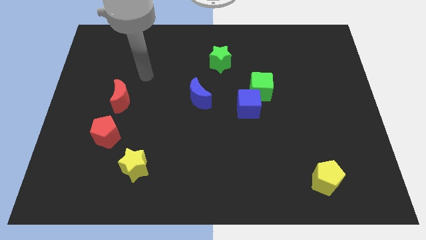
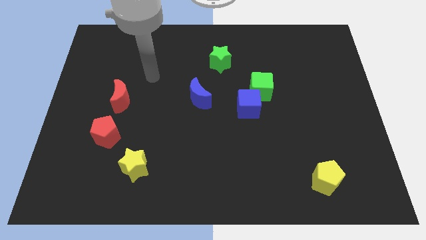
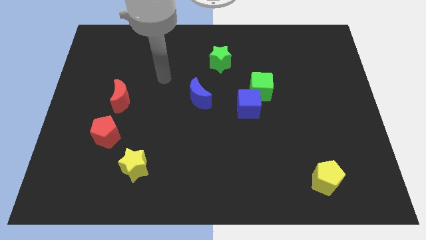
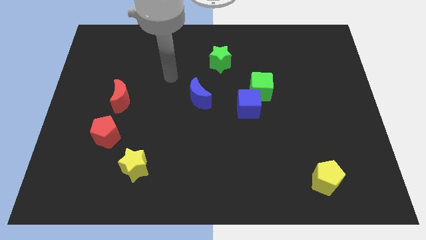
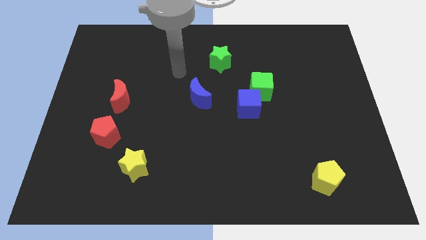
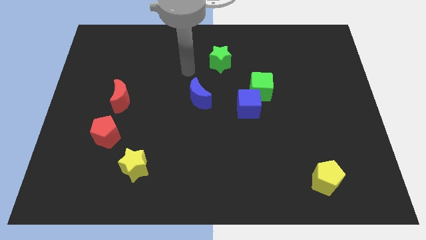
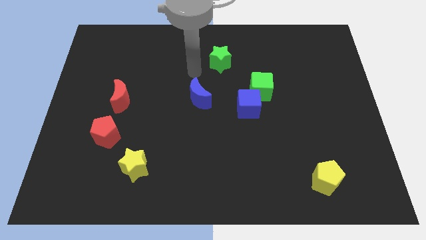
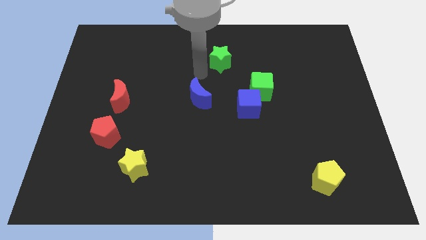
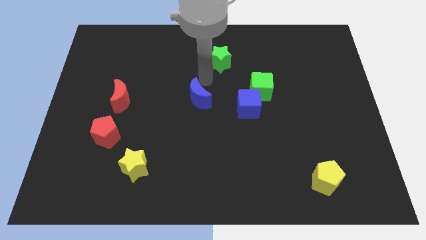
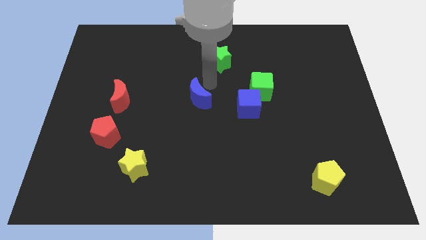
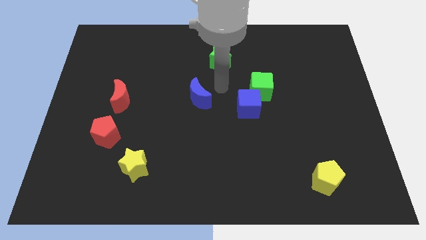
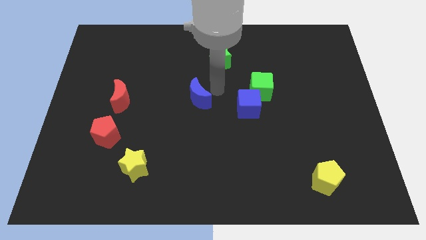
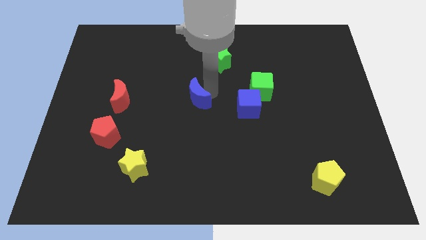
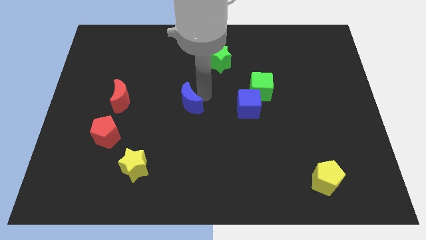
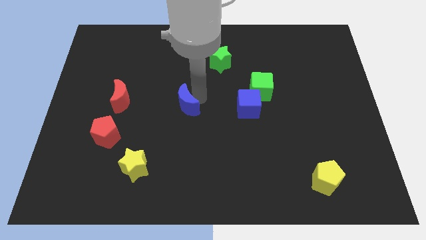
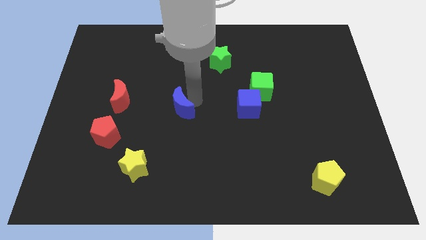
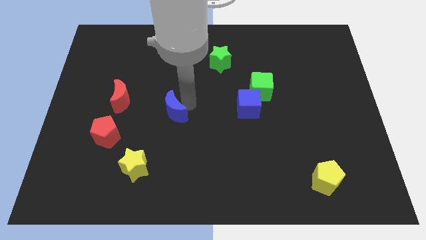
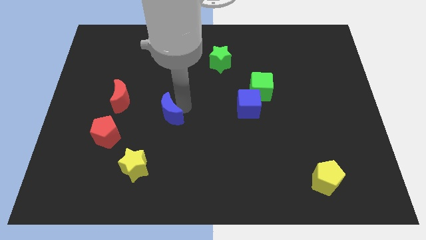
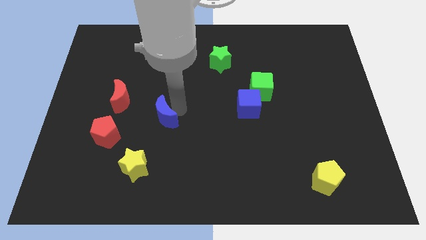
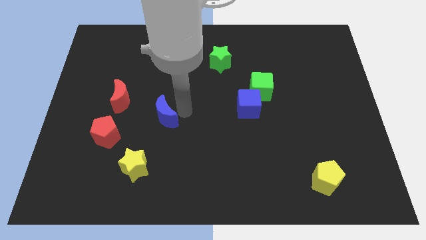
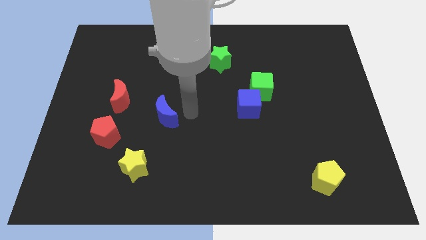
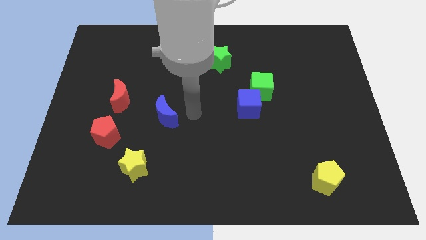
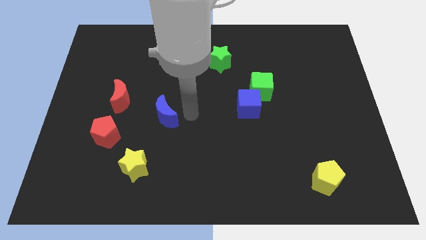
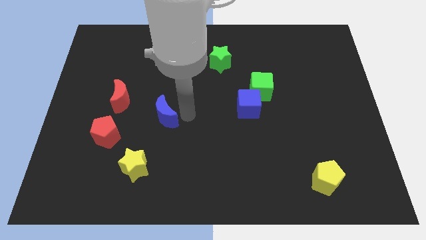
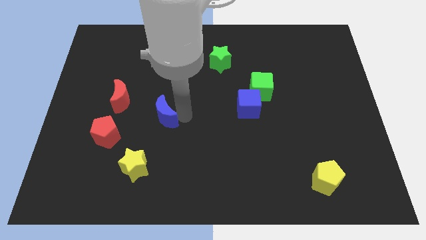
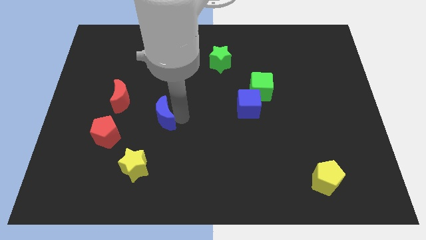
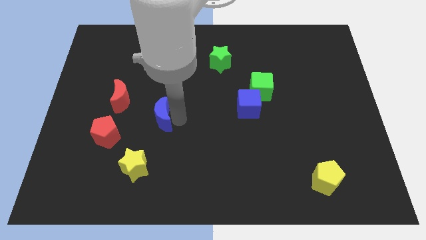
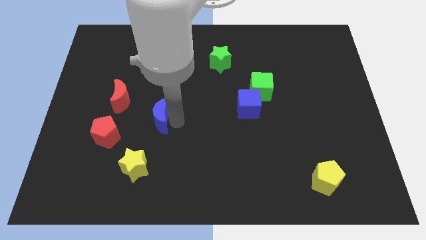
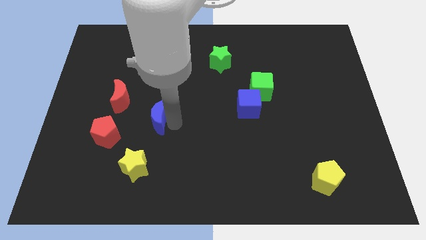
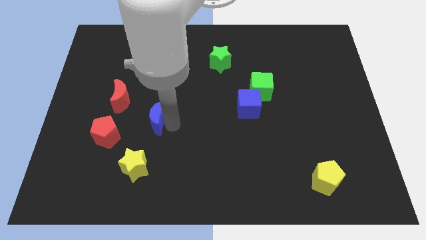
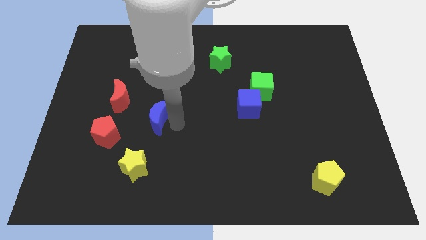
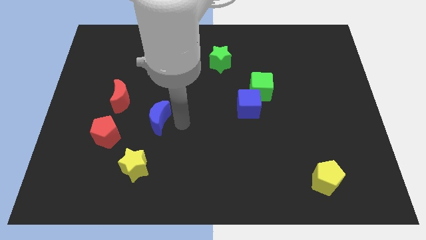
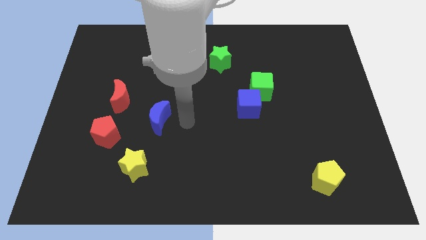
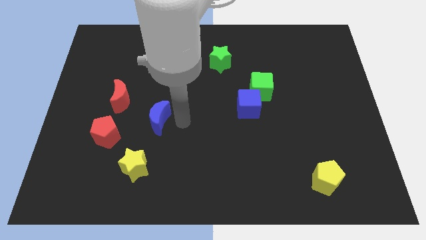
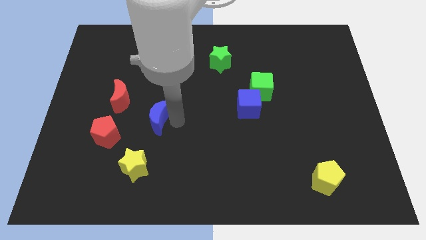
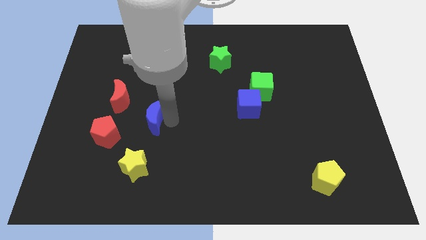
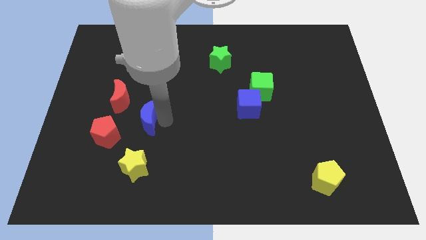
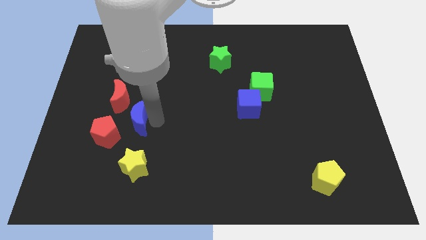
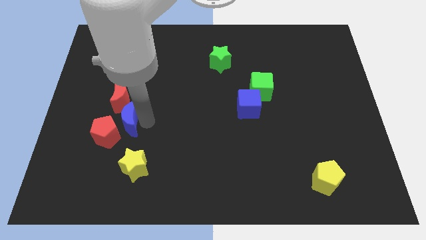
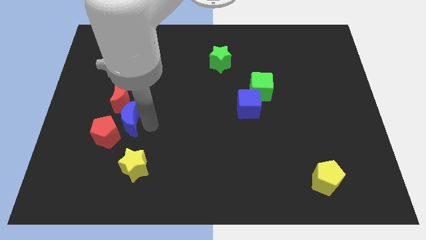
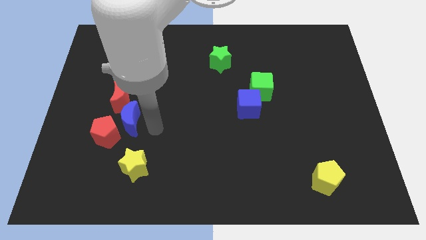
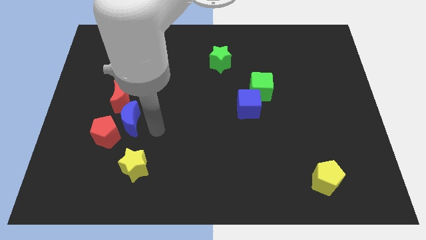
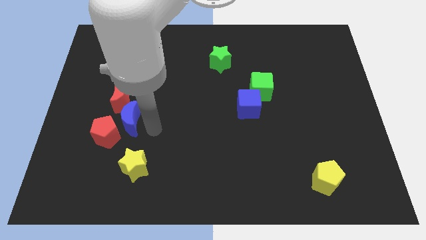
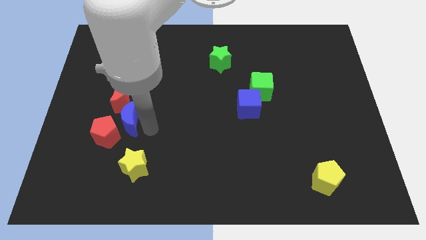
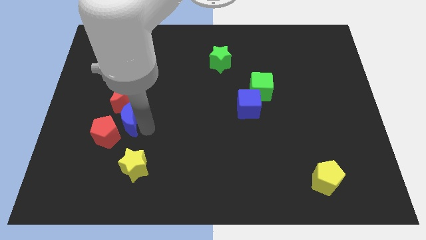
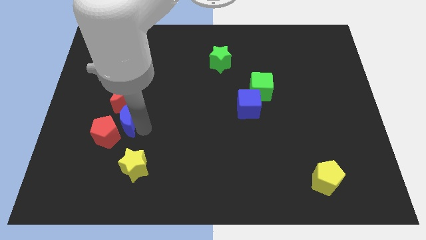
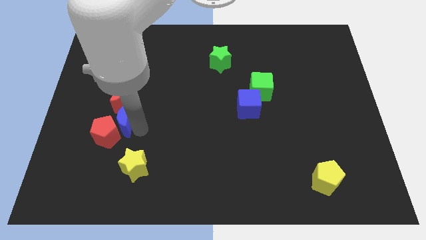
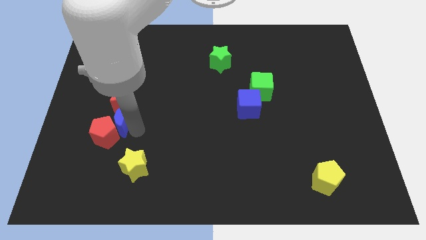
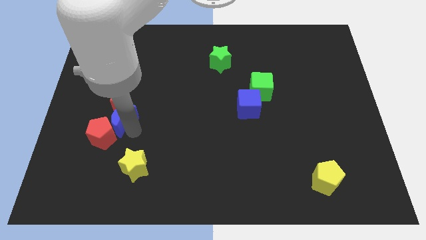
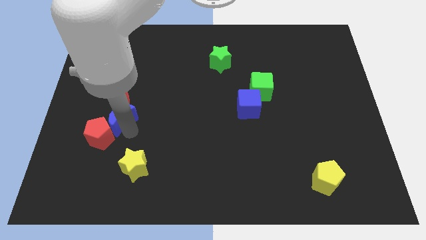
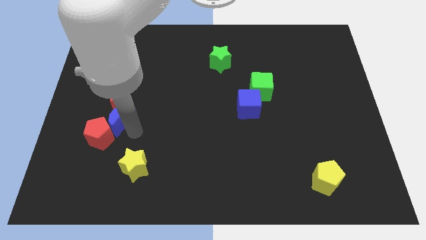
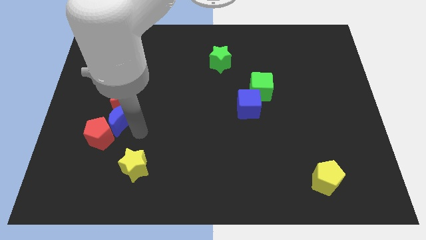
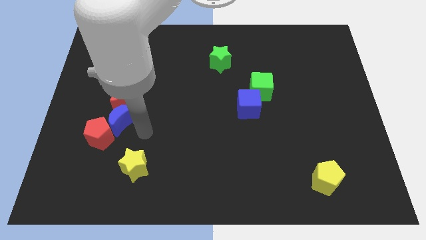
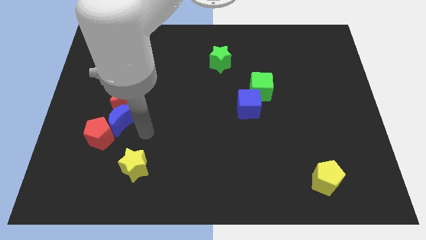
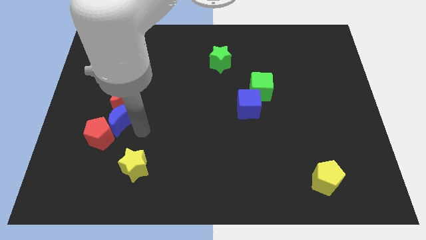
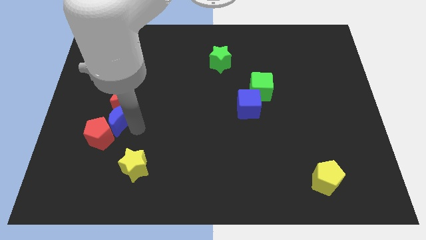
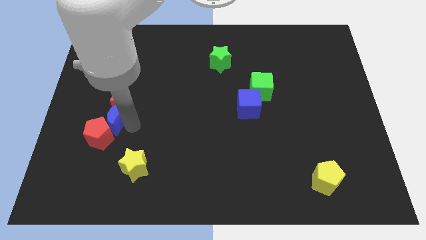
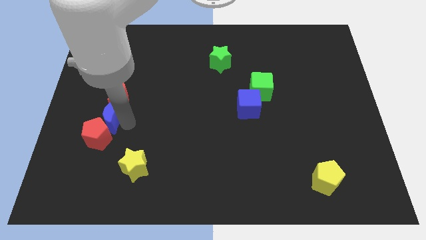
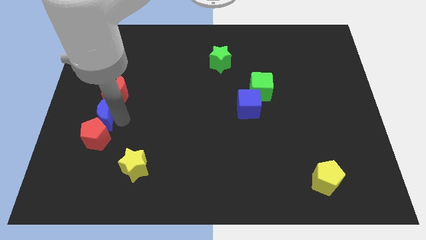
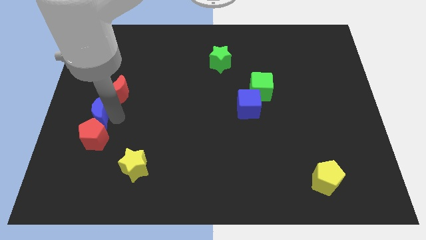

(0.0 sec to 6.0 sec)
put the blue moon to the center left
